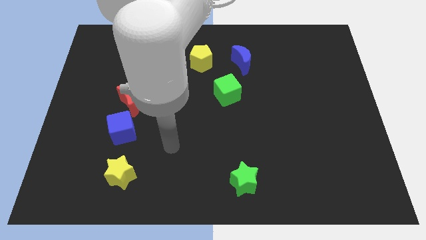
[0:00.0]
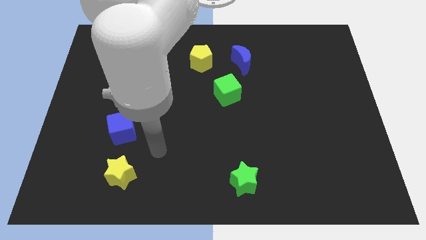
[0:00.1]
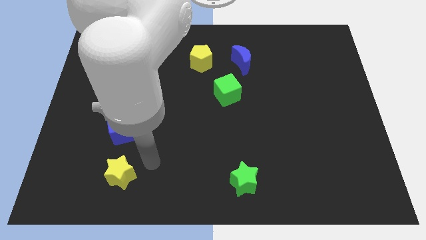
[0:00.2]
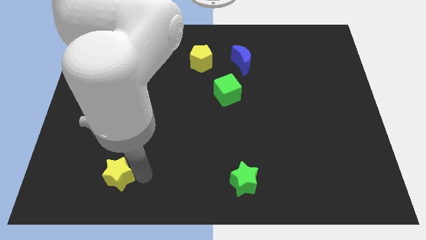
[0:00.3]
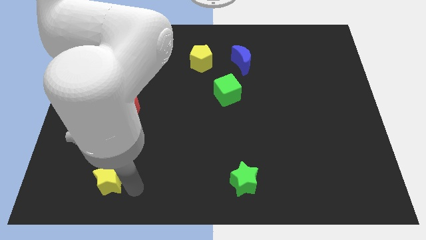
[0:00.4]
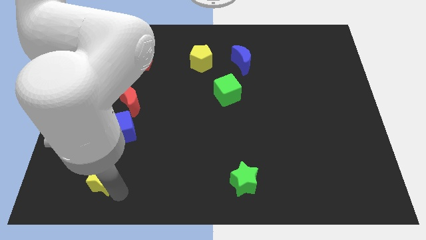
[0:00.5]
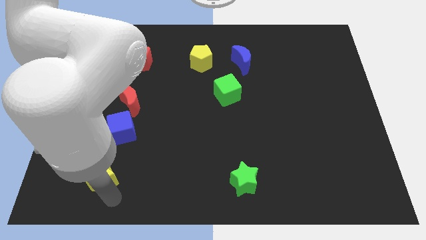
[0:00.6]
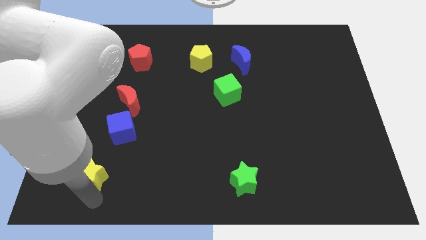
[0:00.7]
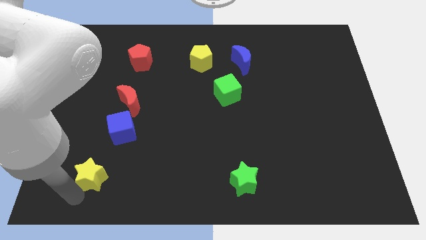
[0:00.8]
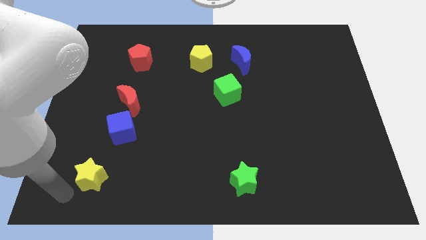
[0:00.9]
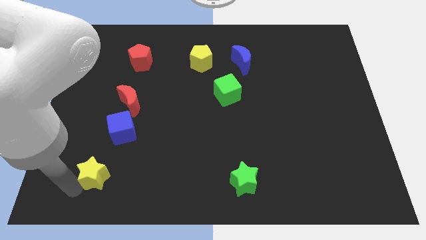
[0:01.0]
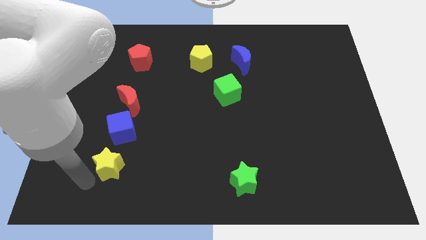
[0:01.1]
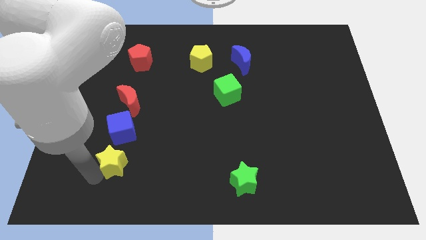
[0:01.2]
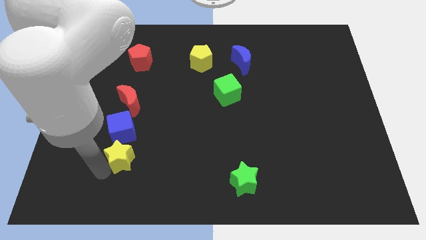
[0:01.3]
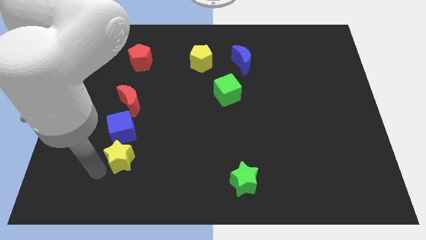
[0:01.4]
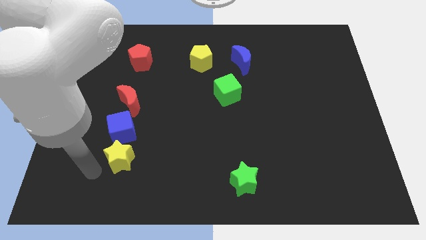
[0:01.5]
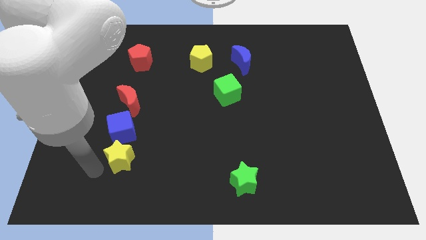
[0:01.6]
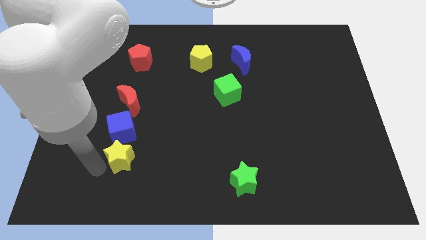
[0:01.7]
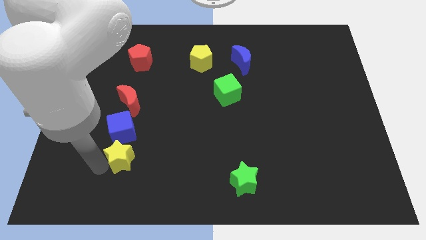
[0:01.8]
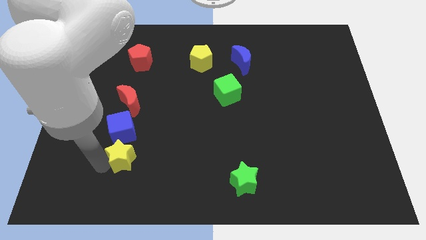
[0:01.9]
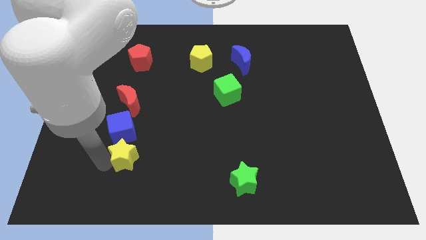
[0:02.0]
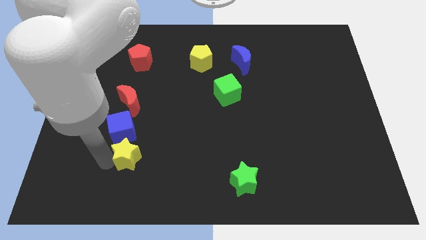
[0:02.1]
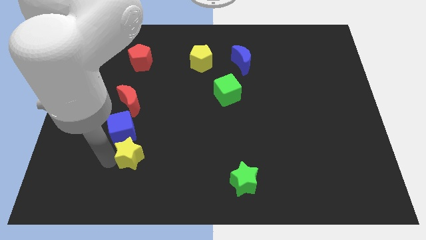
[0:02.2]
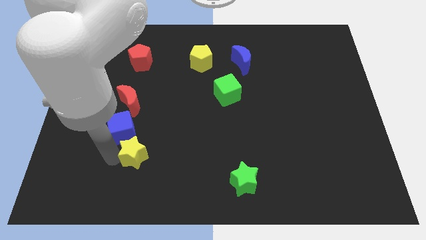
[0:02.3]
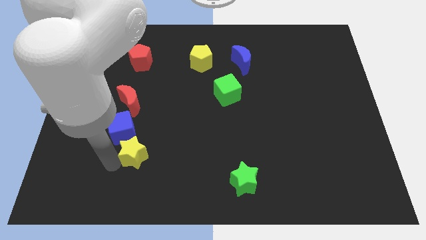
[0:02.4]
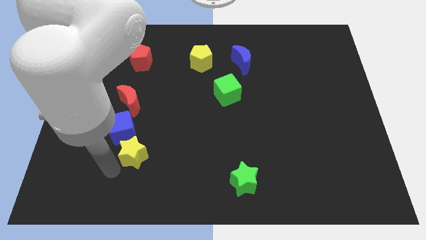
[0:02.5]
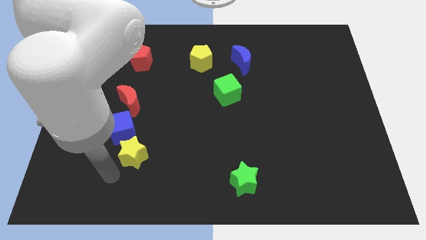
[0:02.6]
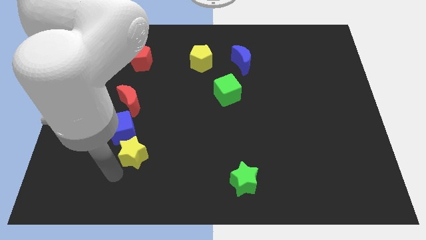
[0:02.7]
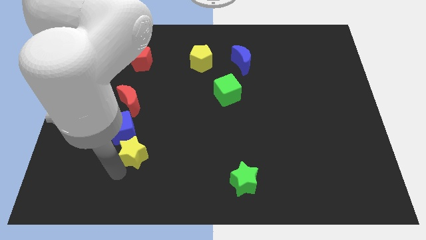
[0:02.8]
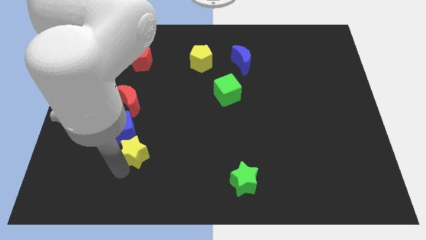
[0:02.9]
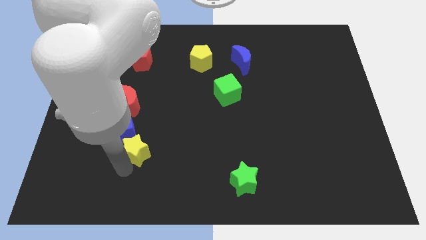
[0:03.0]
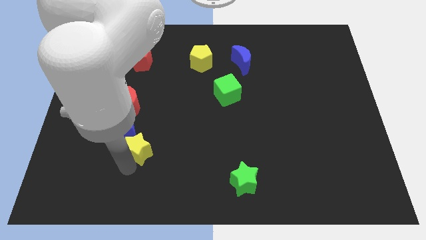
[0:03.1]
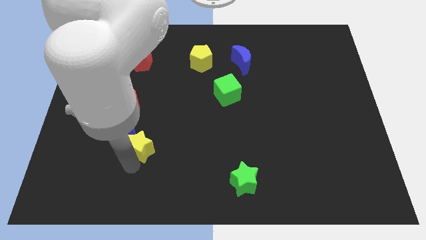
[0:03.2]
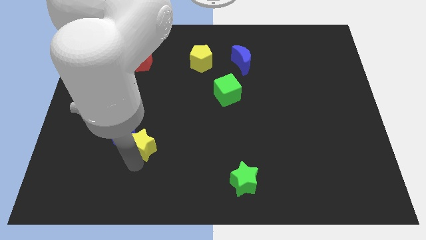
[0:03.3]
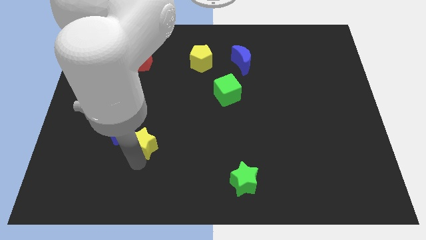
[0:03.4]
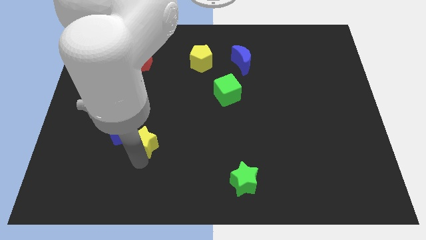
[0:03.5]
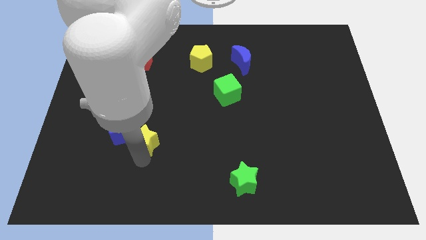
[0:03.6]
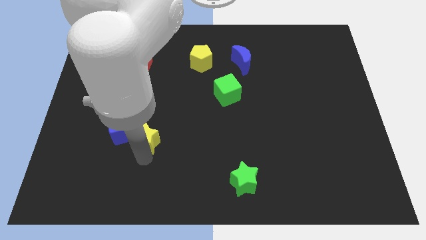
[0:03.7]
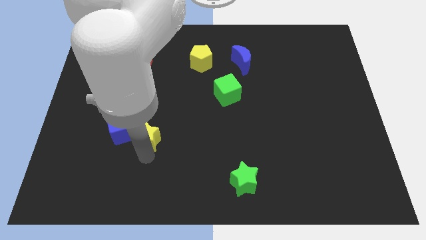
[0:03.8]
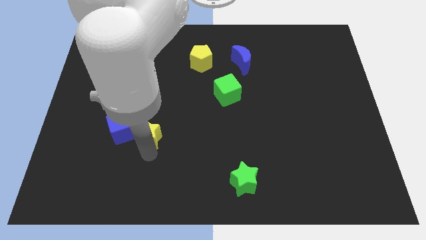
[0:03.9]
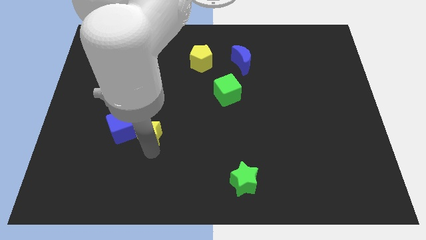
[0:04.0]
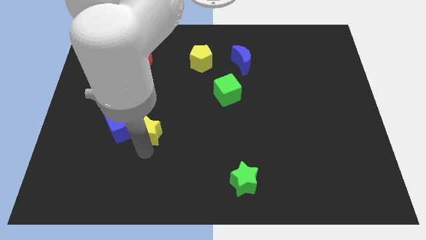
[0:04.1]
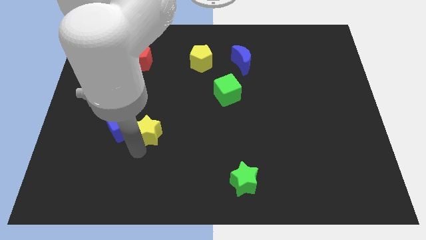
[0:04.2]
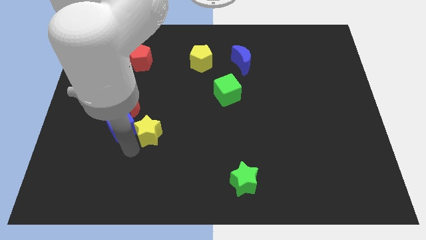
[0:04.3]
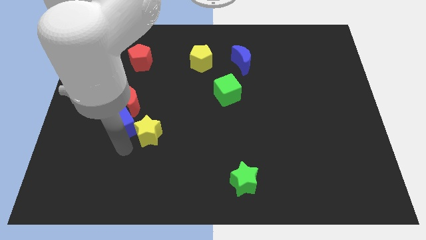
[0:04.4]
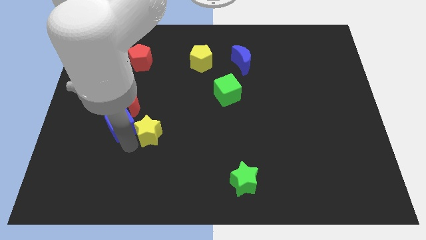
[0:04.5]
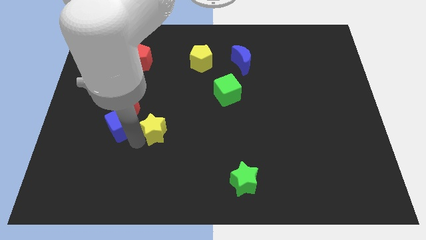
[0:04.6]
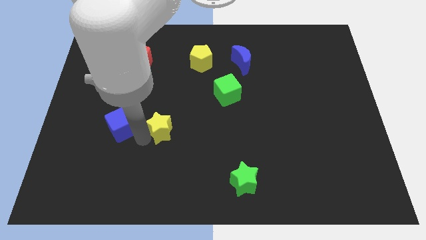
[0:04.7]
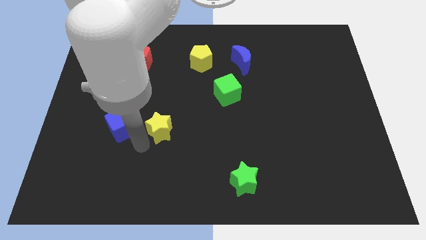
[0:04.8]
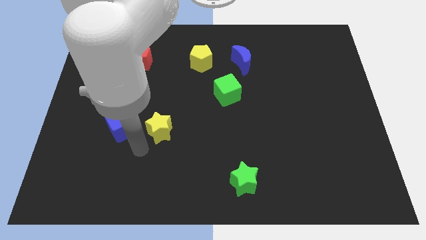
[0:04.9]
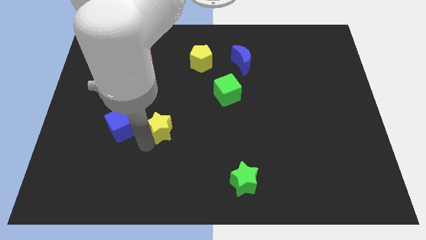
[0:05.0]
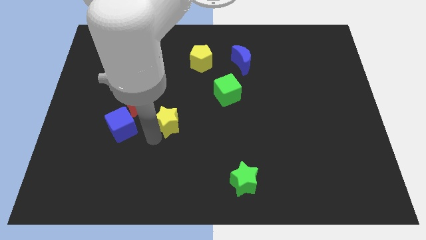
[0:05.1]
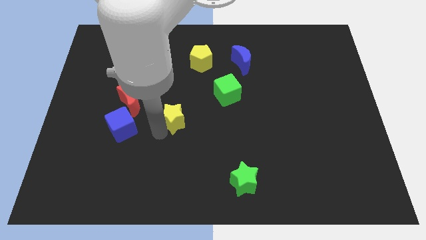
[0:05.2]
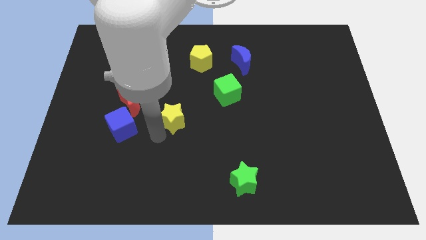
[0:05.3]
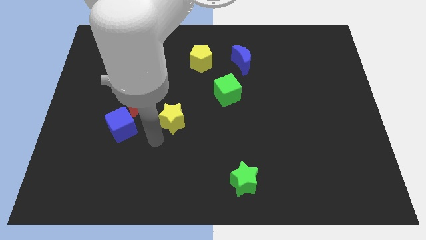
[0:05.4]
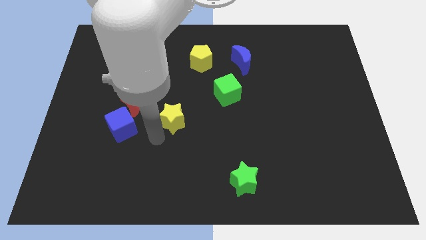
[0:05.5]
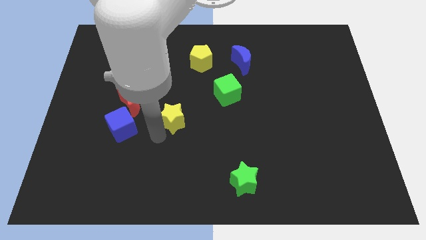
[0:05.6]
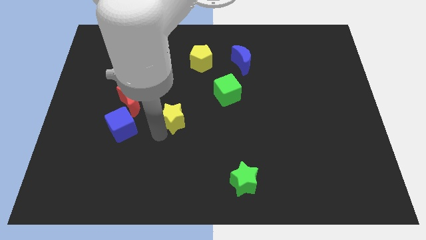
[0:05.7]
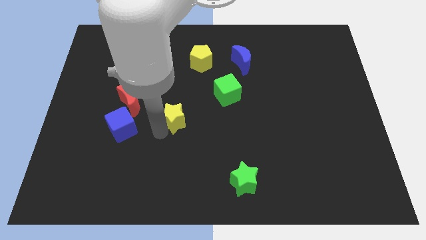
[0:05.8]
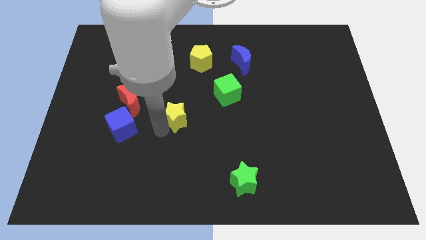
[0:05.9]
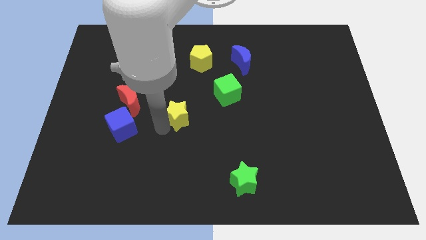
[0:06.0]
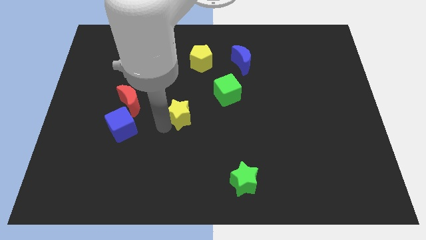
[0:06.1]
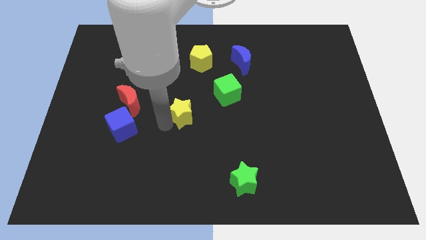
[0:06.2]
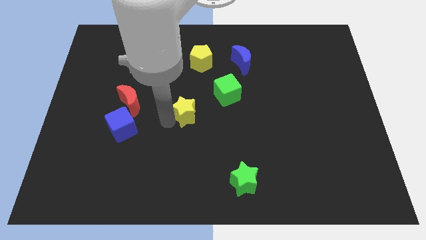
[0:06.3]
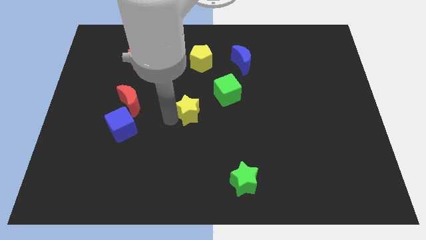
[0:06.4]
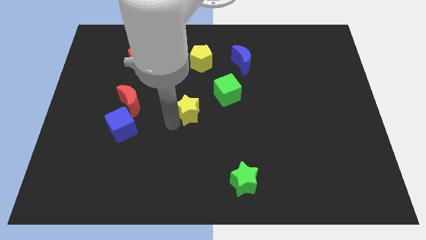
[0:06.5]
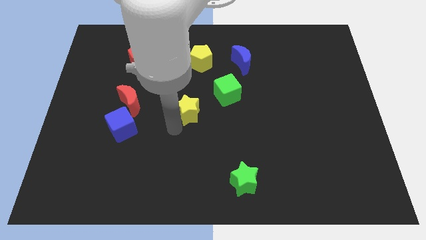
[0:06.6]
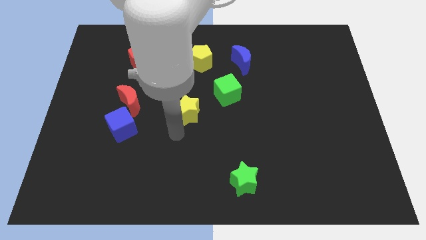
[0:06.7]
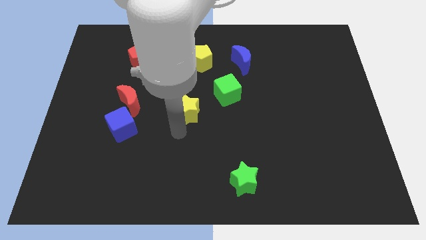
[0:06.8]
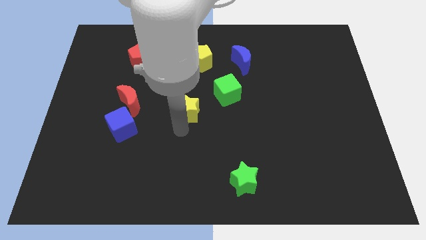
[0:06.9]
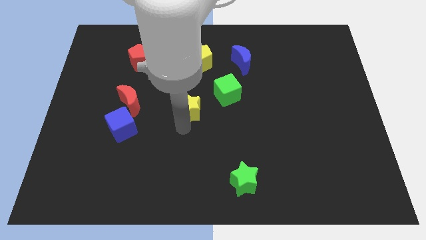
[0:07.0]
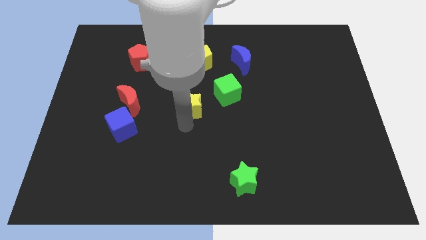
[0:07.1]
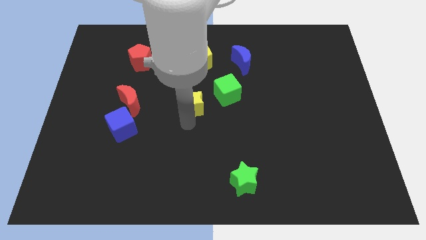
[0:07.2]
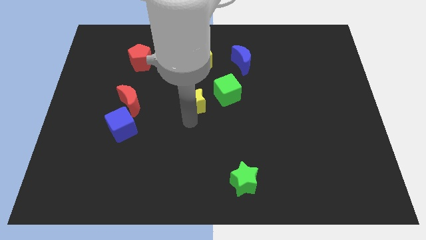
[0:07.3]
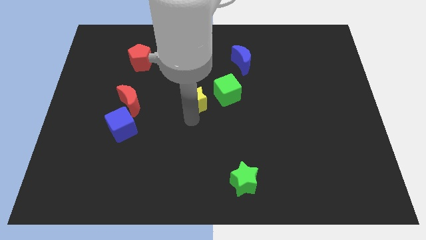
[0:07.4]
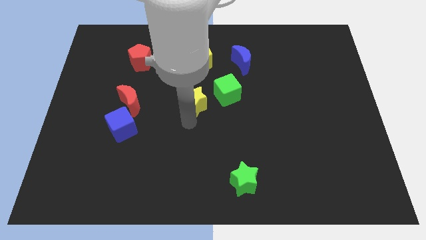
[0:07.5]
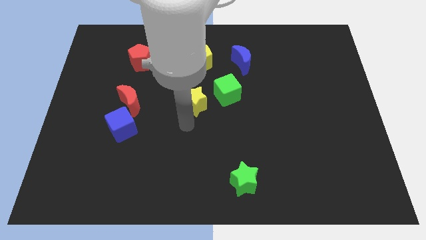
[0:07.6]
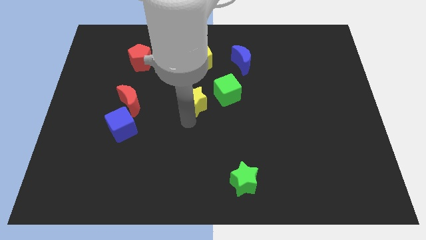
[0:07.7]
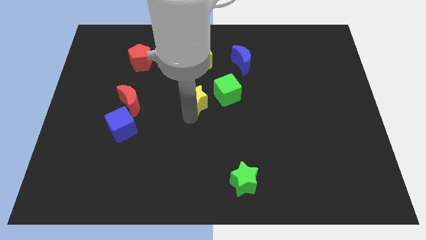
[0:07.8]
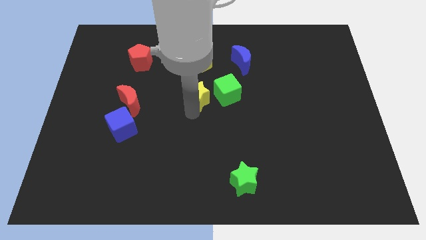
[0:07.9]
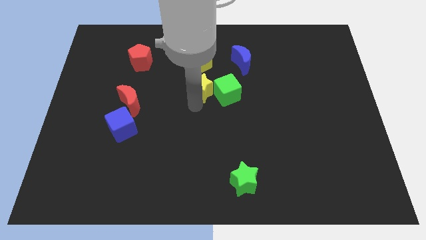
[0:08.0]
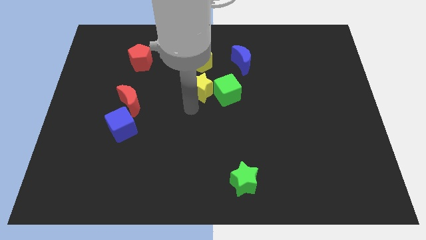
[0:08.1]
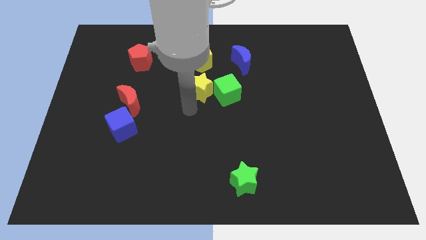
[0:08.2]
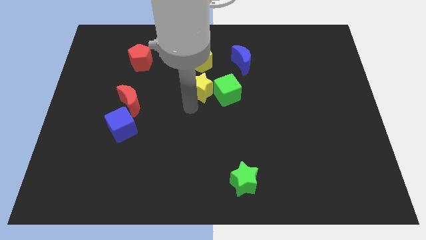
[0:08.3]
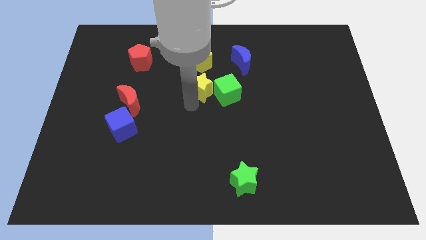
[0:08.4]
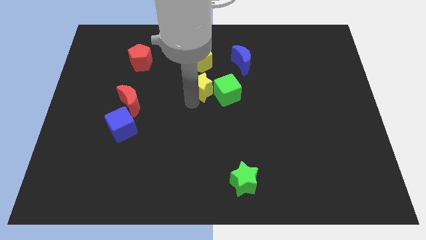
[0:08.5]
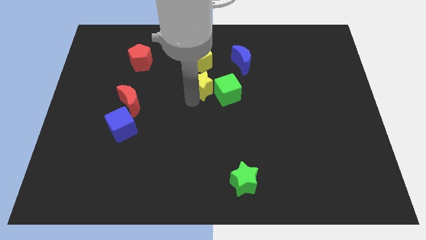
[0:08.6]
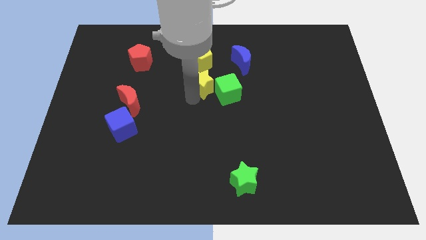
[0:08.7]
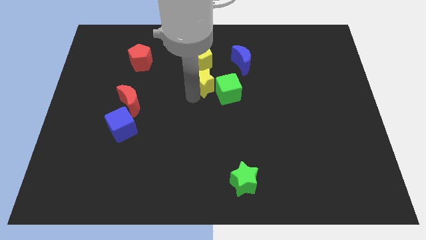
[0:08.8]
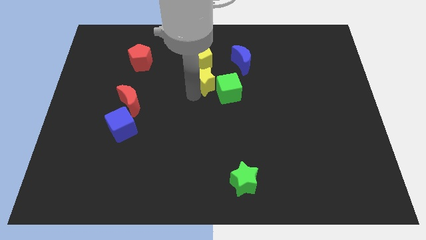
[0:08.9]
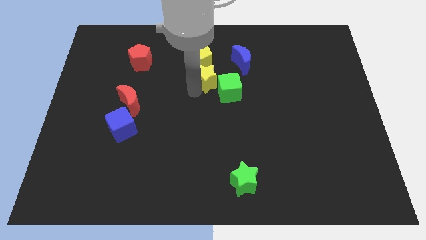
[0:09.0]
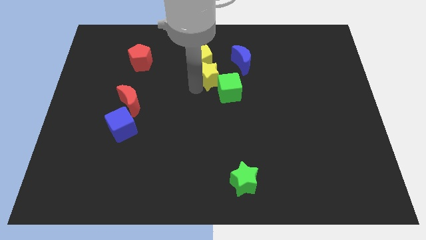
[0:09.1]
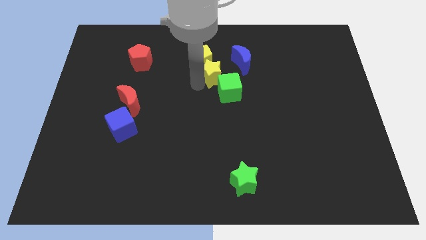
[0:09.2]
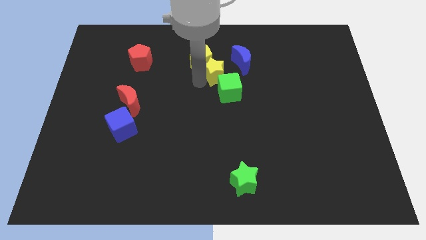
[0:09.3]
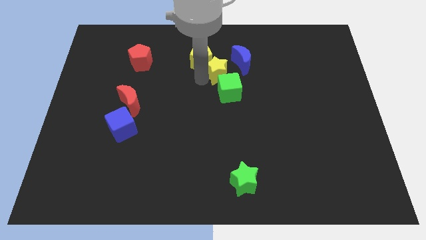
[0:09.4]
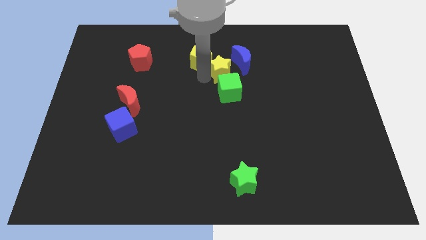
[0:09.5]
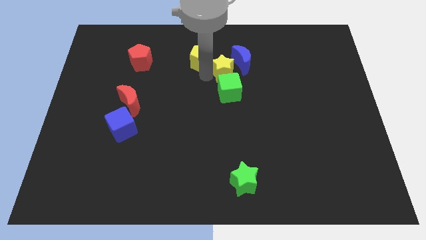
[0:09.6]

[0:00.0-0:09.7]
slide the yellow star towards the blue moon
